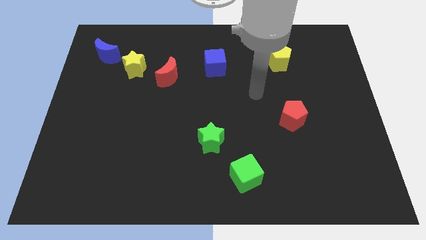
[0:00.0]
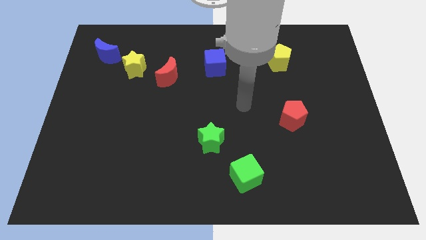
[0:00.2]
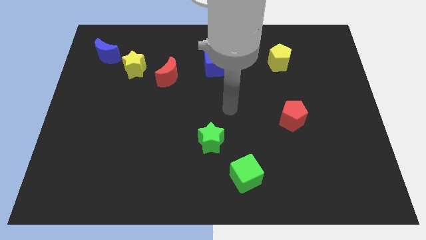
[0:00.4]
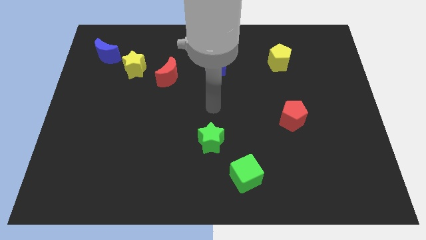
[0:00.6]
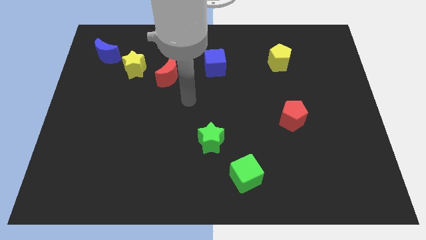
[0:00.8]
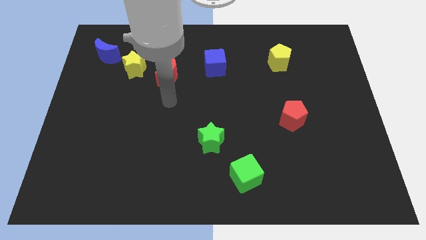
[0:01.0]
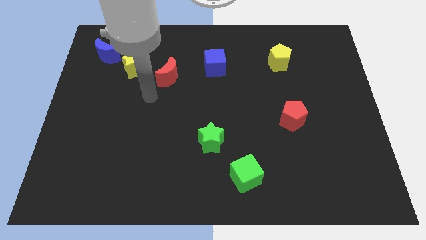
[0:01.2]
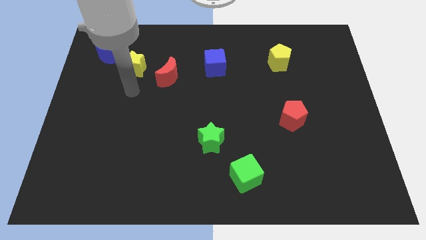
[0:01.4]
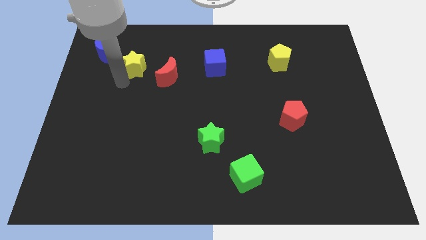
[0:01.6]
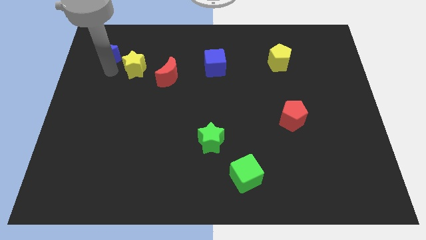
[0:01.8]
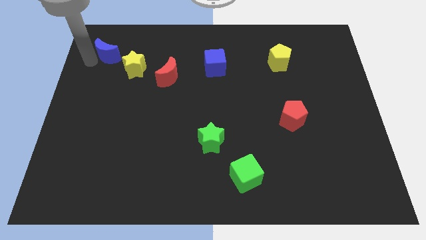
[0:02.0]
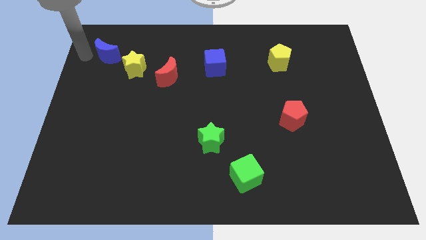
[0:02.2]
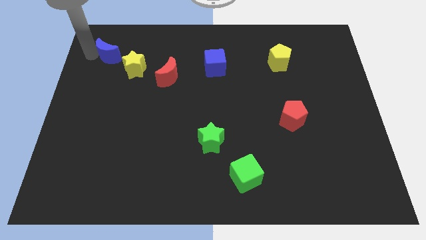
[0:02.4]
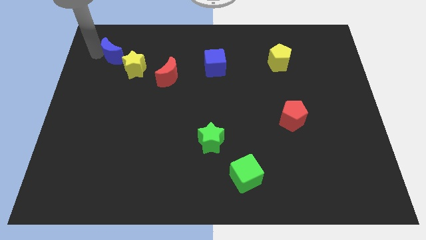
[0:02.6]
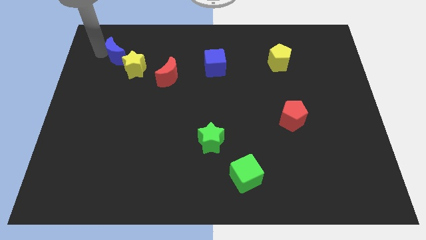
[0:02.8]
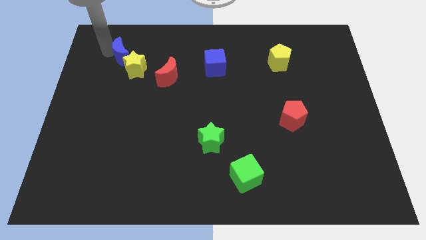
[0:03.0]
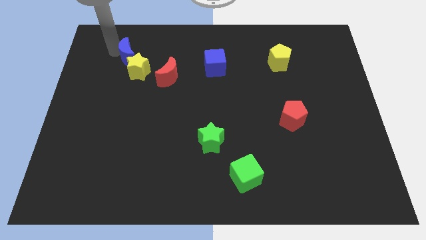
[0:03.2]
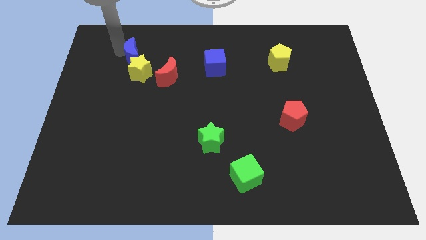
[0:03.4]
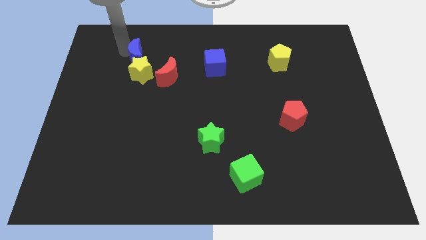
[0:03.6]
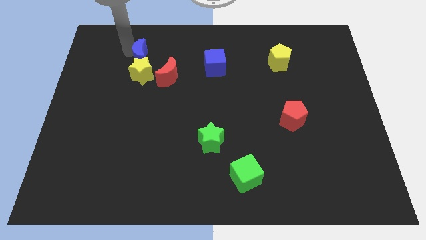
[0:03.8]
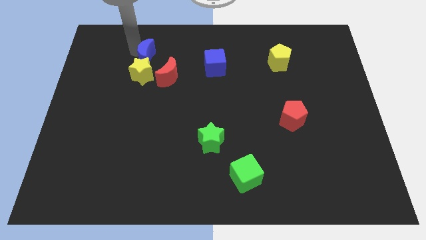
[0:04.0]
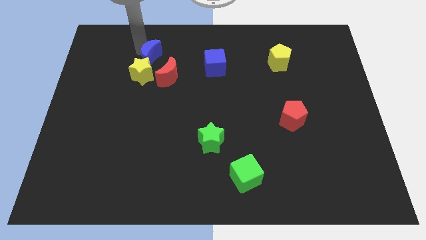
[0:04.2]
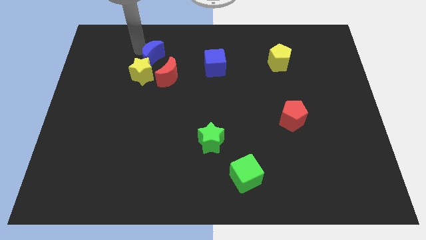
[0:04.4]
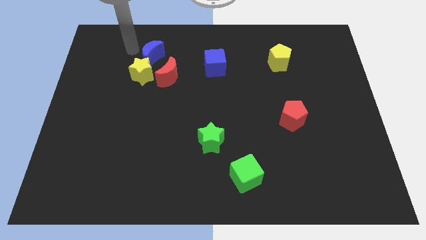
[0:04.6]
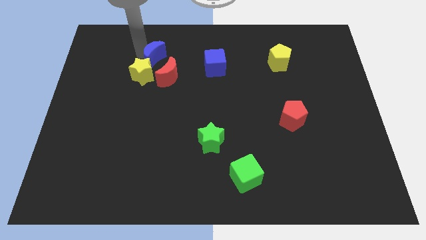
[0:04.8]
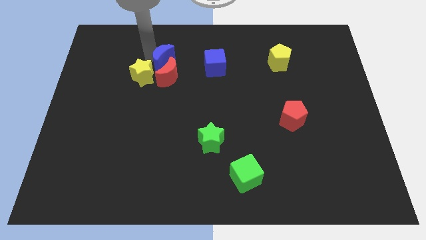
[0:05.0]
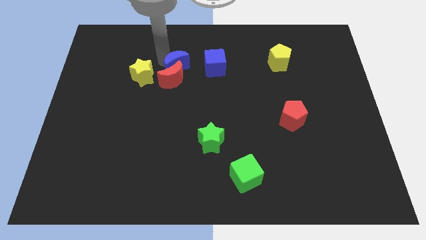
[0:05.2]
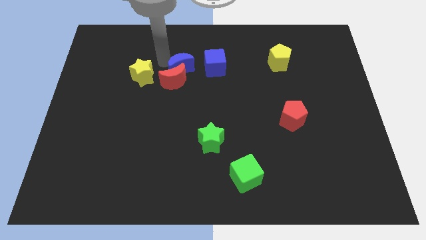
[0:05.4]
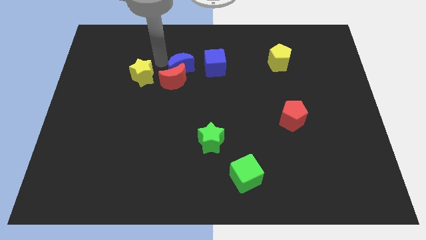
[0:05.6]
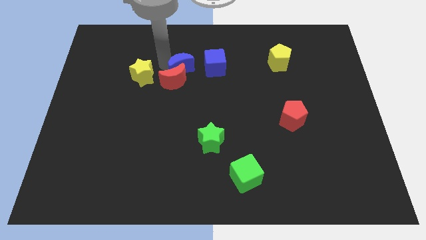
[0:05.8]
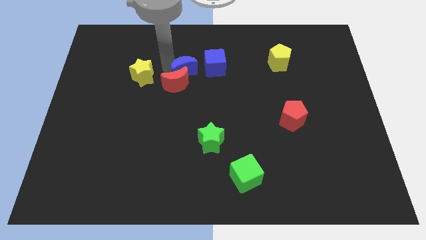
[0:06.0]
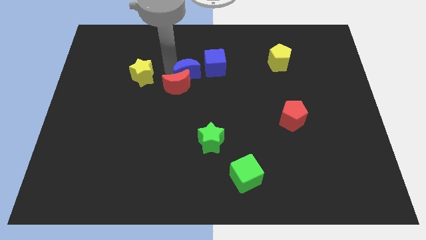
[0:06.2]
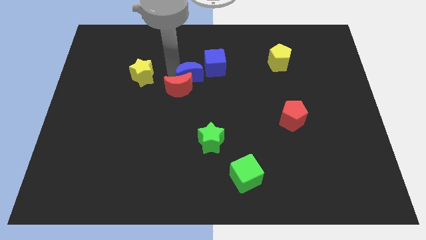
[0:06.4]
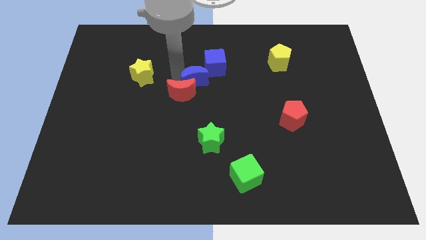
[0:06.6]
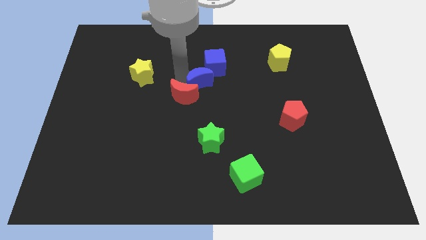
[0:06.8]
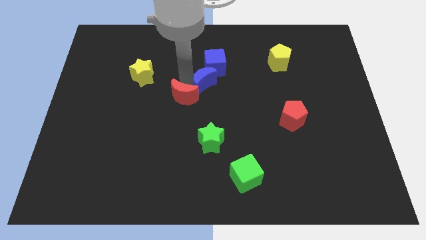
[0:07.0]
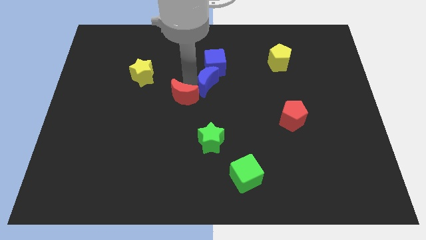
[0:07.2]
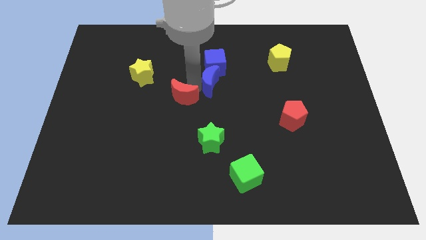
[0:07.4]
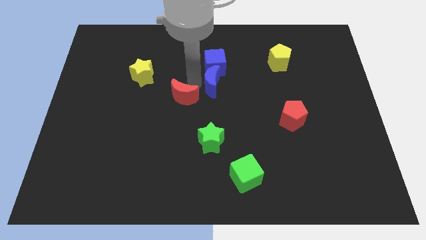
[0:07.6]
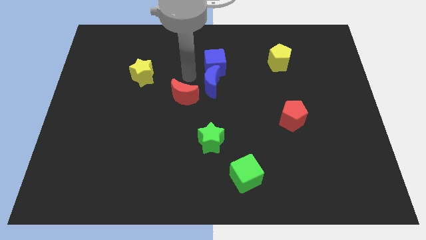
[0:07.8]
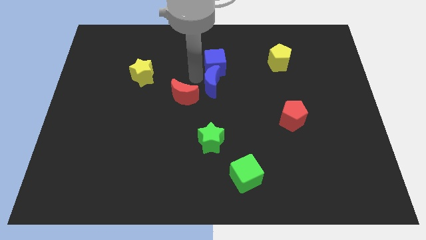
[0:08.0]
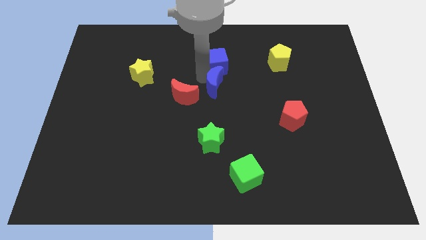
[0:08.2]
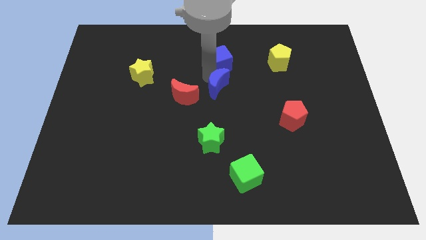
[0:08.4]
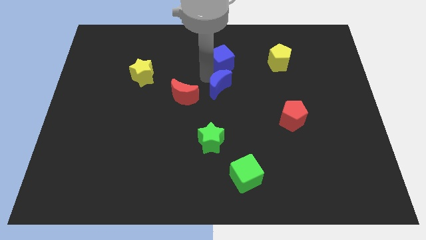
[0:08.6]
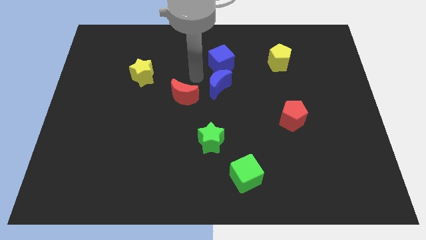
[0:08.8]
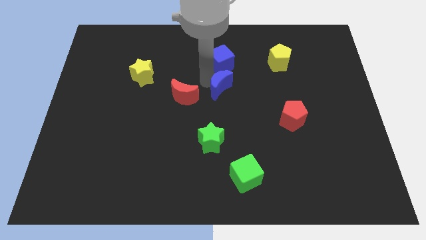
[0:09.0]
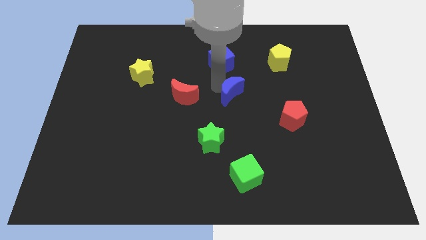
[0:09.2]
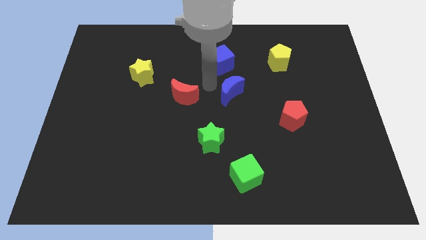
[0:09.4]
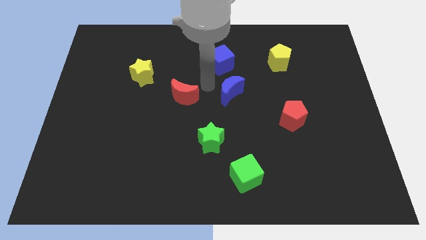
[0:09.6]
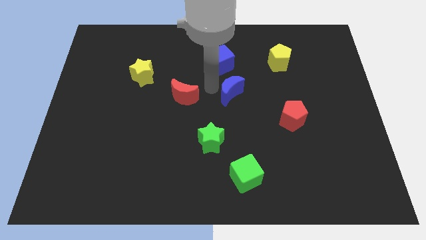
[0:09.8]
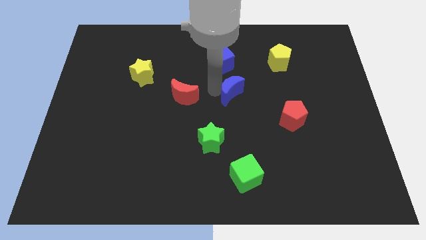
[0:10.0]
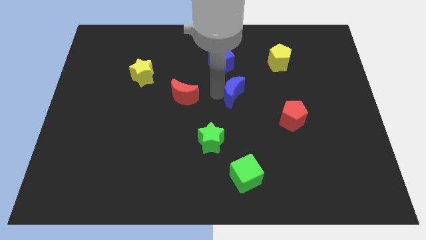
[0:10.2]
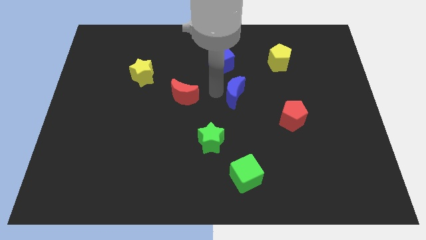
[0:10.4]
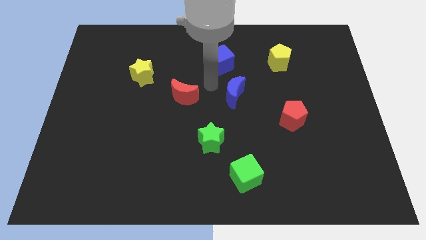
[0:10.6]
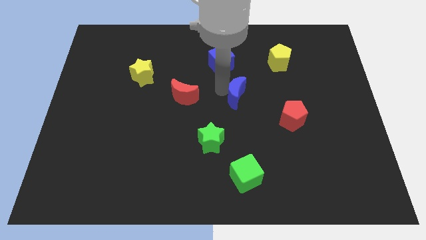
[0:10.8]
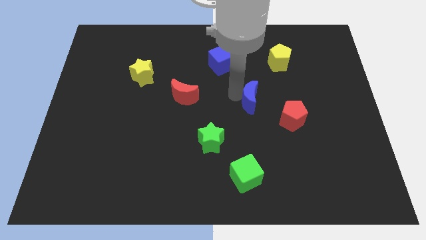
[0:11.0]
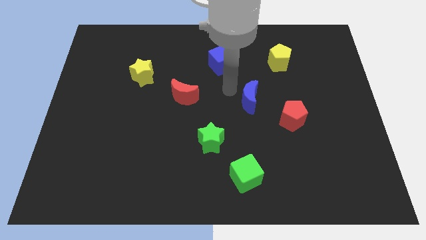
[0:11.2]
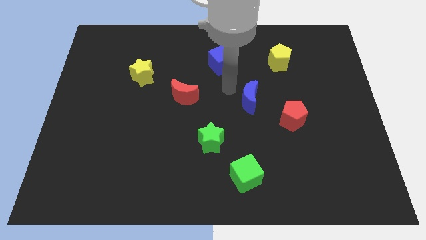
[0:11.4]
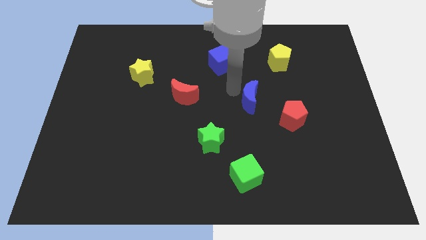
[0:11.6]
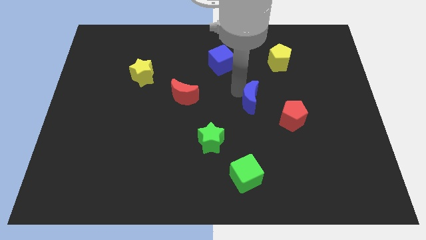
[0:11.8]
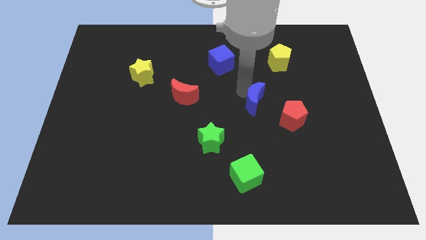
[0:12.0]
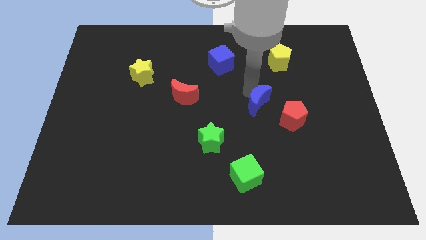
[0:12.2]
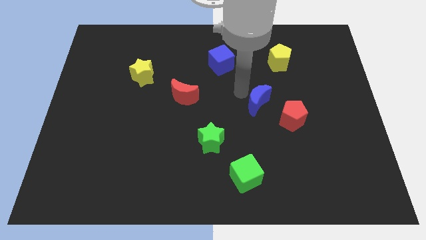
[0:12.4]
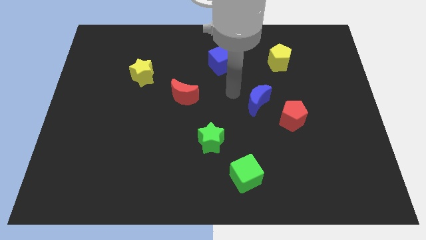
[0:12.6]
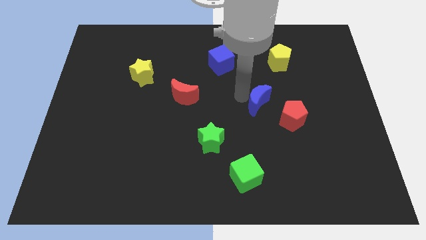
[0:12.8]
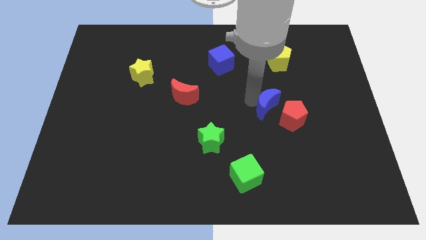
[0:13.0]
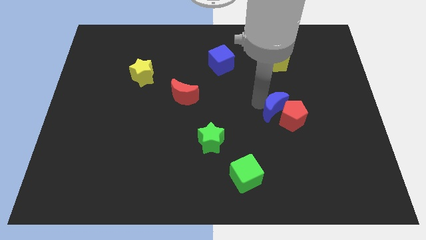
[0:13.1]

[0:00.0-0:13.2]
push the blue moon to the red pentagon

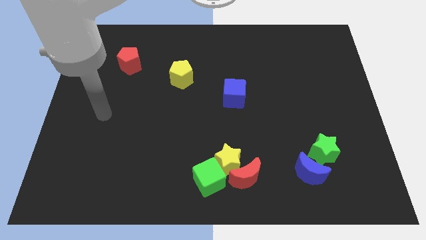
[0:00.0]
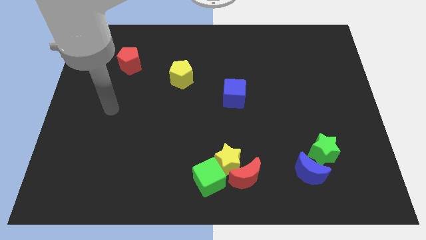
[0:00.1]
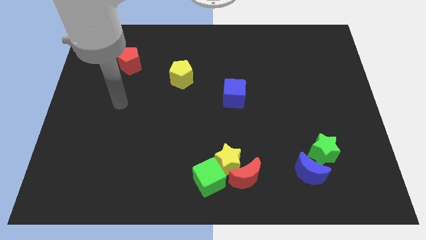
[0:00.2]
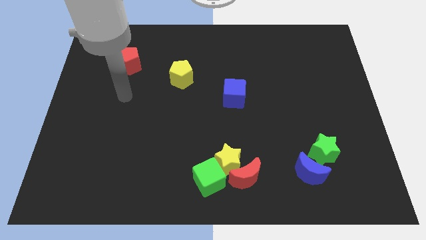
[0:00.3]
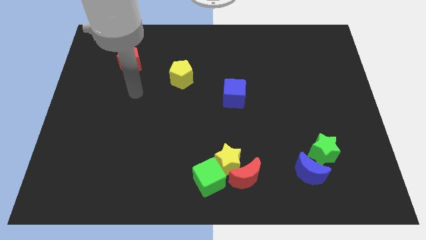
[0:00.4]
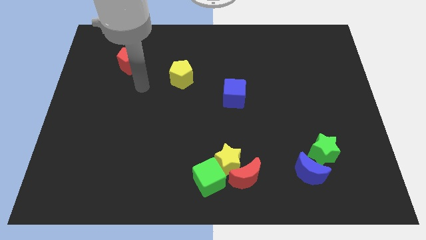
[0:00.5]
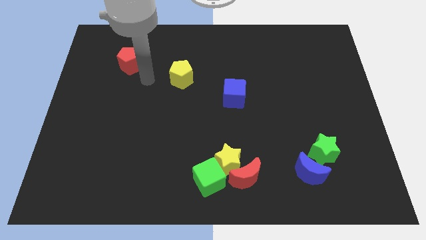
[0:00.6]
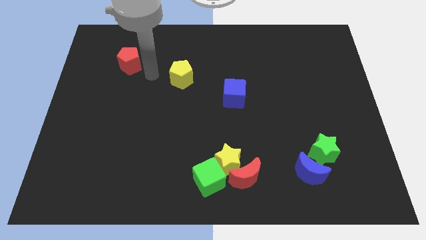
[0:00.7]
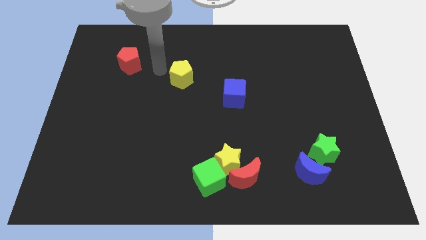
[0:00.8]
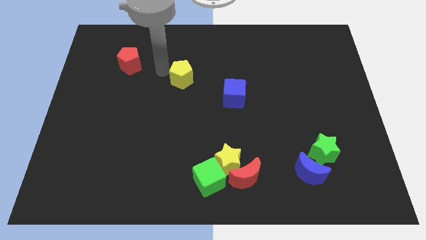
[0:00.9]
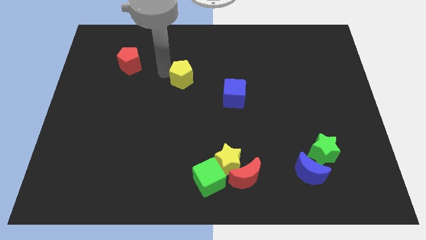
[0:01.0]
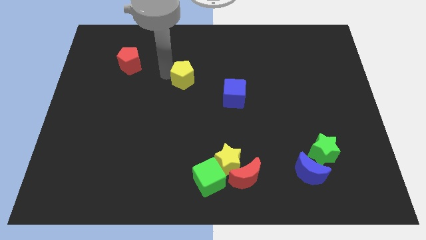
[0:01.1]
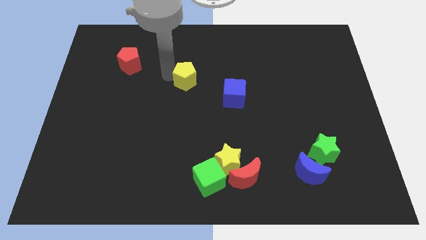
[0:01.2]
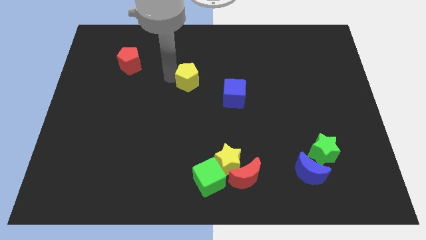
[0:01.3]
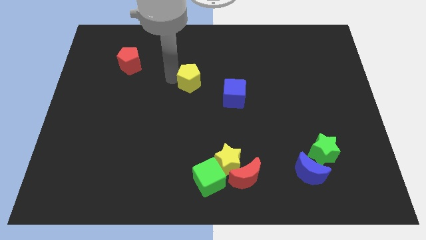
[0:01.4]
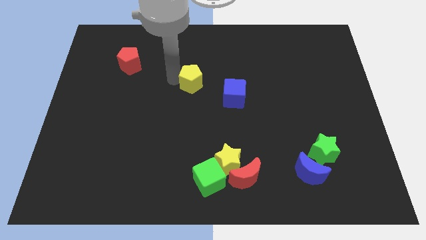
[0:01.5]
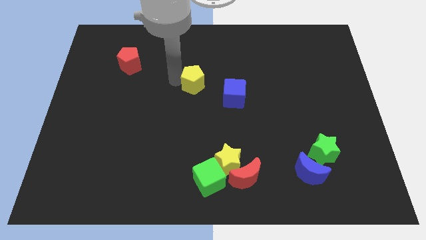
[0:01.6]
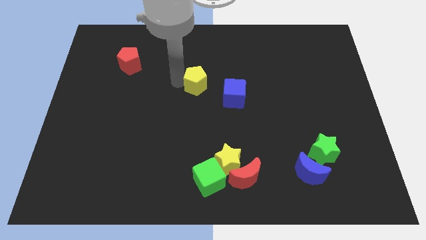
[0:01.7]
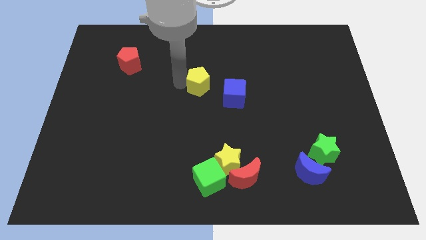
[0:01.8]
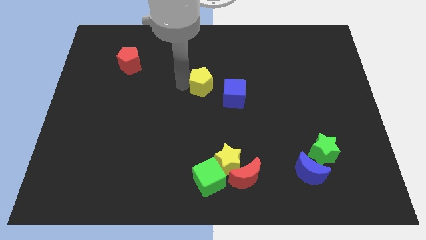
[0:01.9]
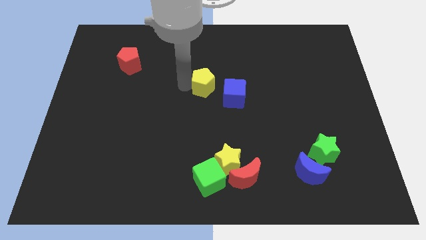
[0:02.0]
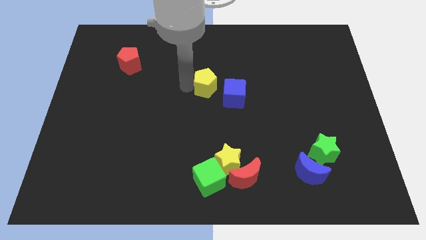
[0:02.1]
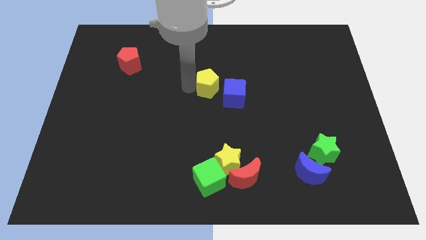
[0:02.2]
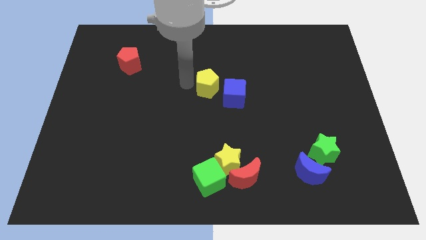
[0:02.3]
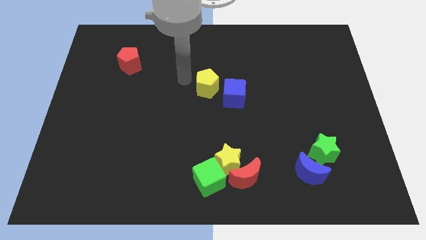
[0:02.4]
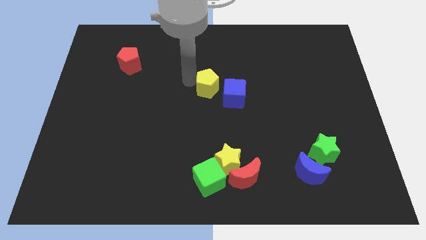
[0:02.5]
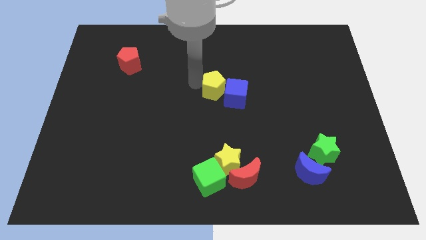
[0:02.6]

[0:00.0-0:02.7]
slide the yellow pentagon next to the blue cube
